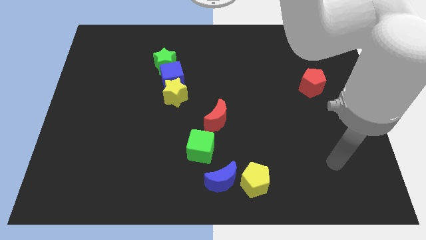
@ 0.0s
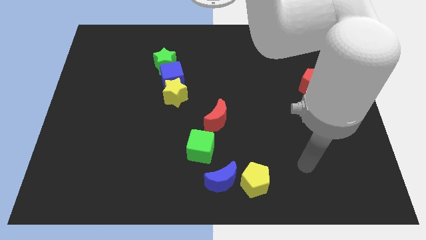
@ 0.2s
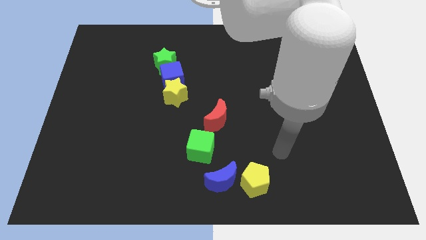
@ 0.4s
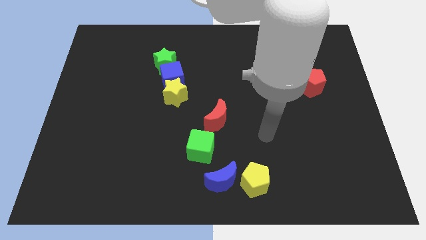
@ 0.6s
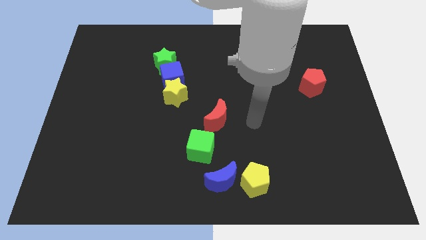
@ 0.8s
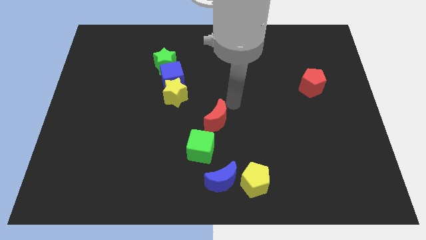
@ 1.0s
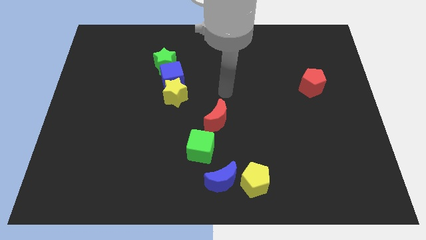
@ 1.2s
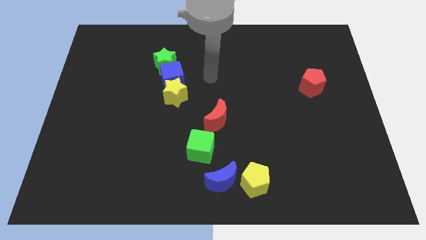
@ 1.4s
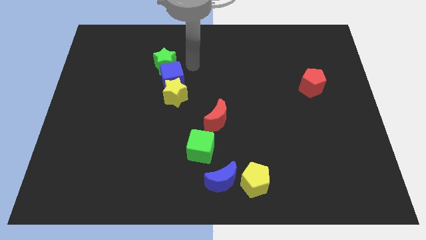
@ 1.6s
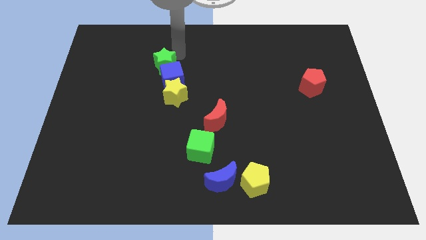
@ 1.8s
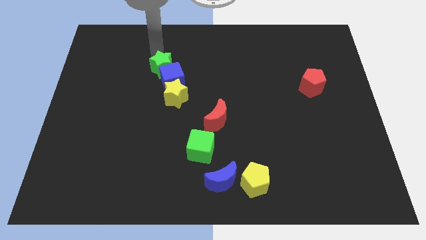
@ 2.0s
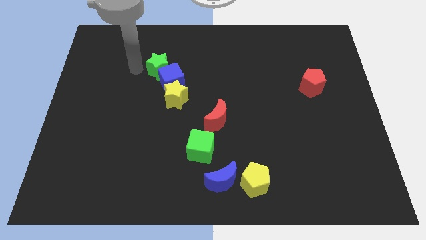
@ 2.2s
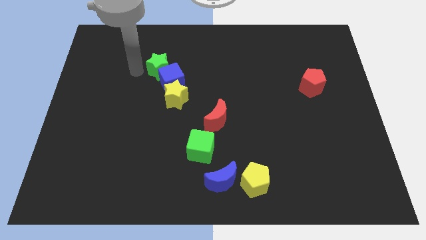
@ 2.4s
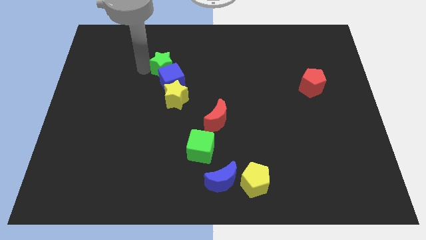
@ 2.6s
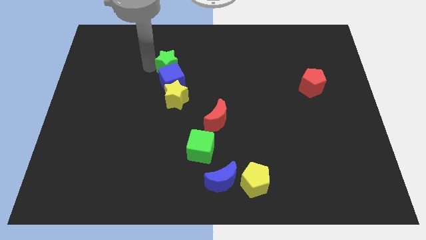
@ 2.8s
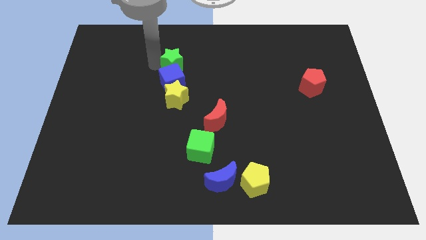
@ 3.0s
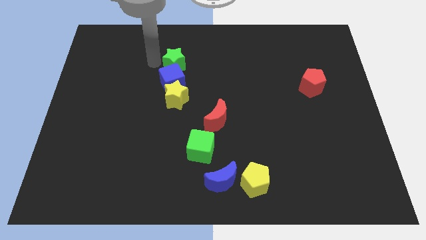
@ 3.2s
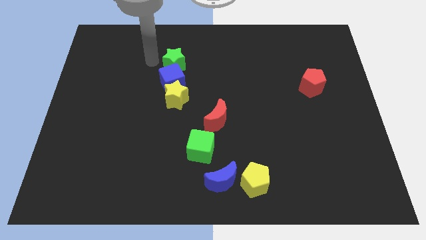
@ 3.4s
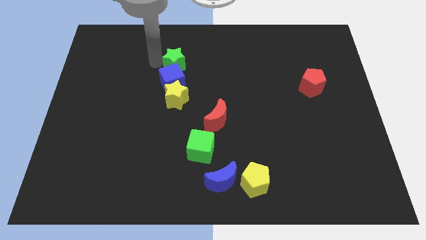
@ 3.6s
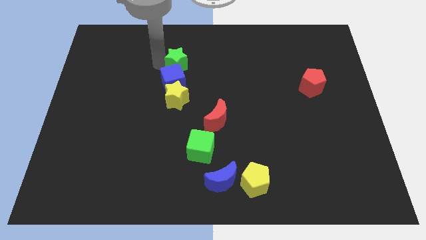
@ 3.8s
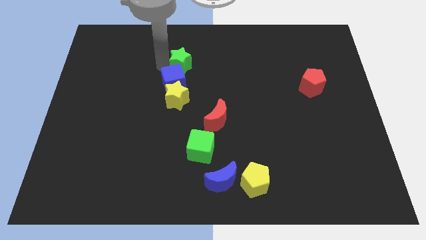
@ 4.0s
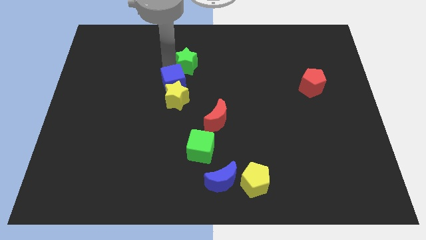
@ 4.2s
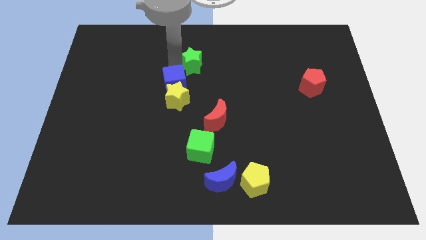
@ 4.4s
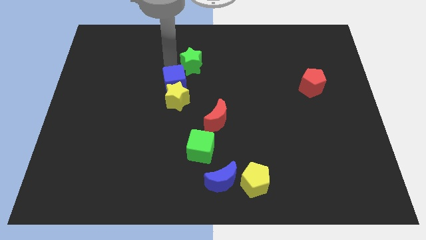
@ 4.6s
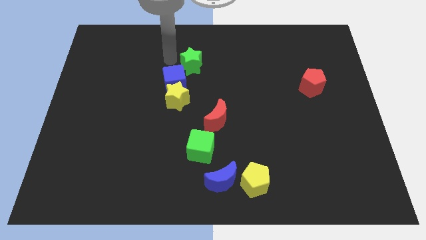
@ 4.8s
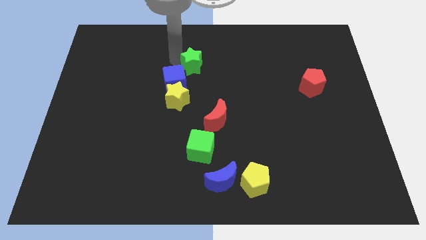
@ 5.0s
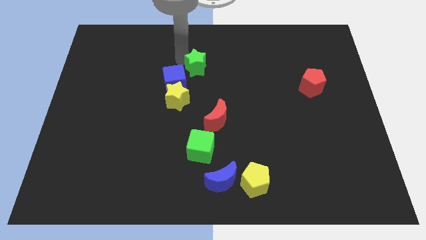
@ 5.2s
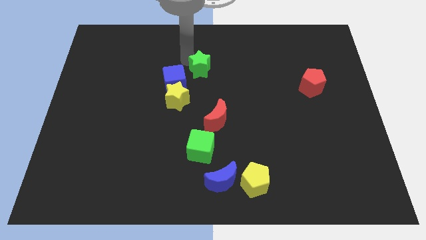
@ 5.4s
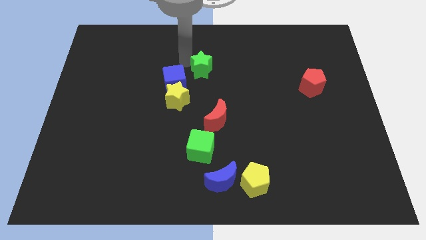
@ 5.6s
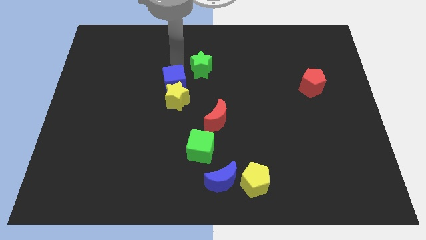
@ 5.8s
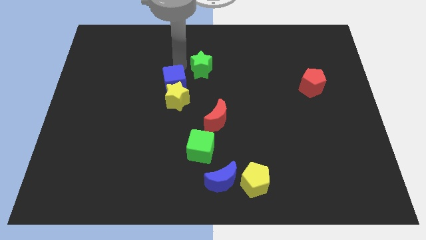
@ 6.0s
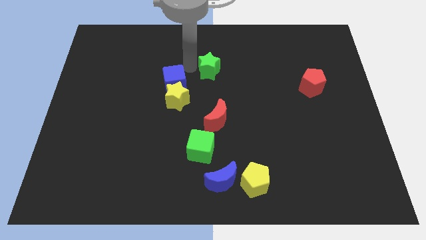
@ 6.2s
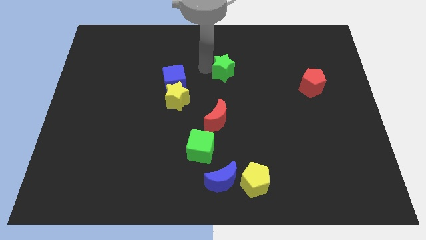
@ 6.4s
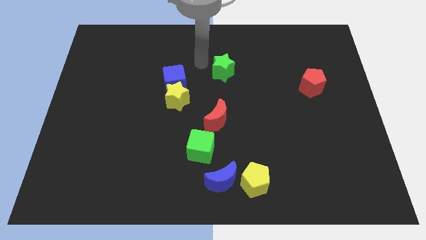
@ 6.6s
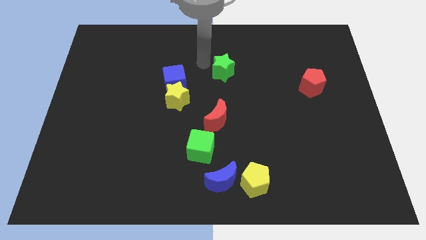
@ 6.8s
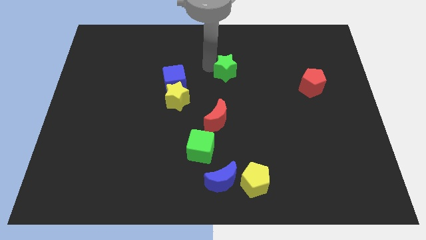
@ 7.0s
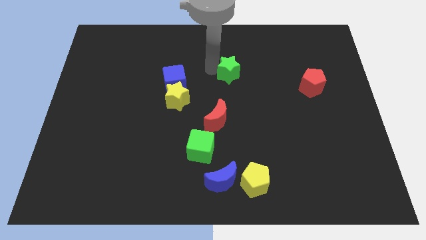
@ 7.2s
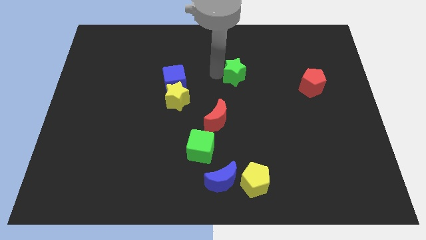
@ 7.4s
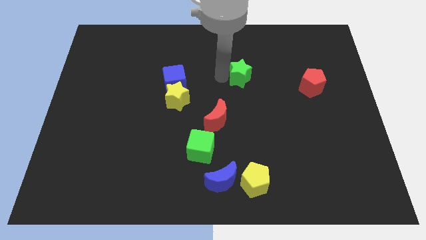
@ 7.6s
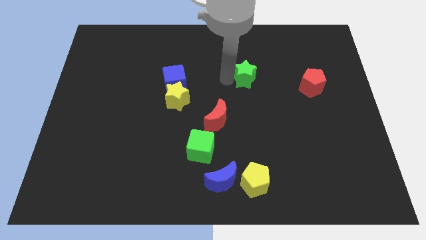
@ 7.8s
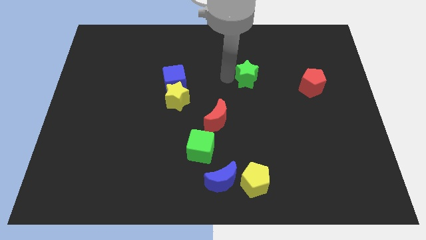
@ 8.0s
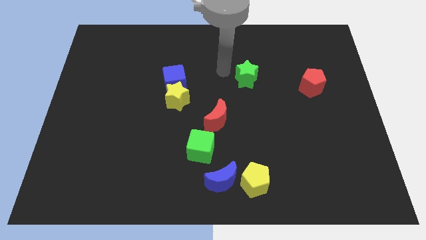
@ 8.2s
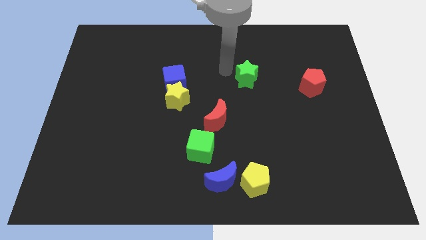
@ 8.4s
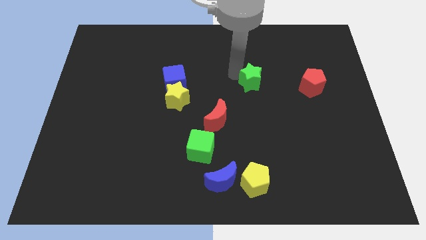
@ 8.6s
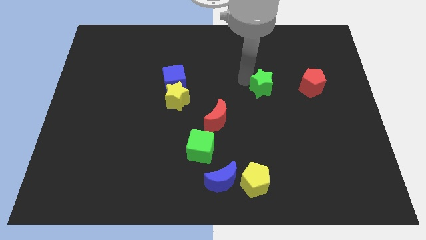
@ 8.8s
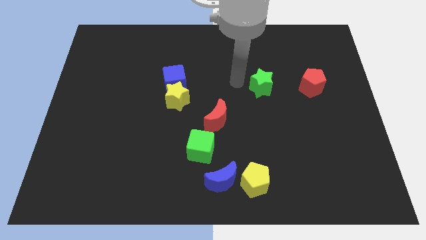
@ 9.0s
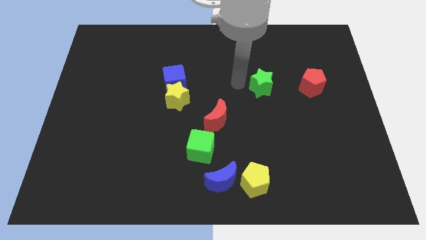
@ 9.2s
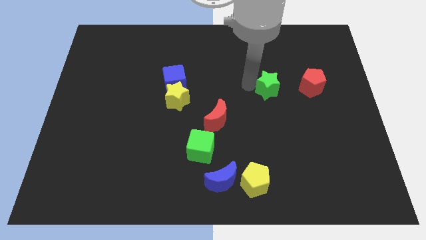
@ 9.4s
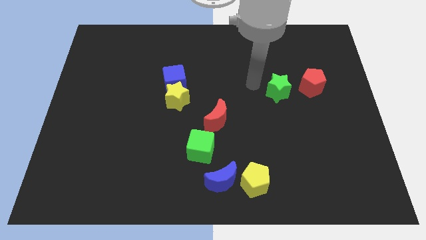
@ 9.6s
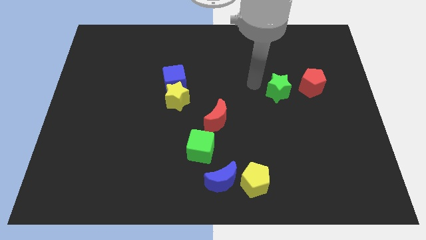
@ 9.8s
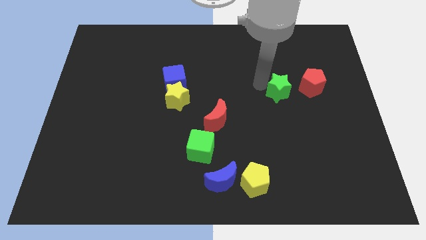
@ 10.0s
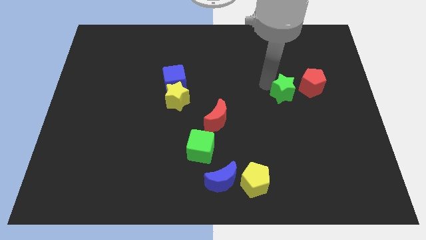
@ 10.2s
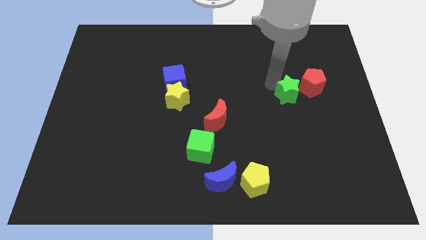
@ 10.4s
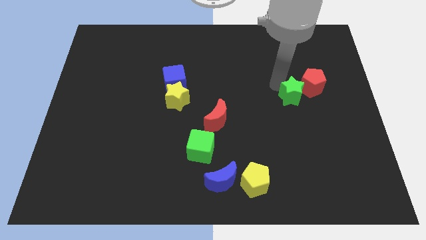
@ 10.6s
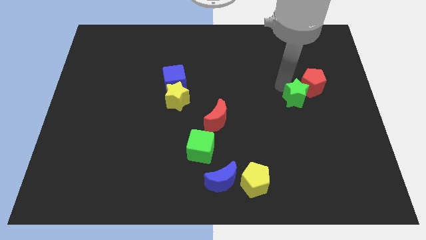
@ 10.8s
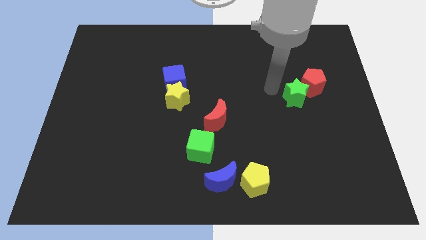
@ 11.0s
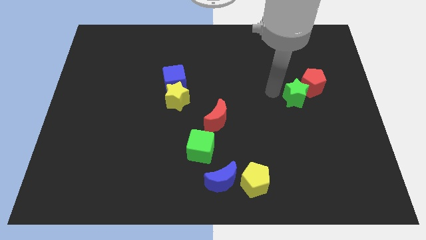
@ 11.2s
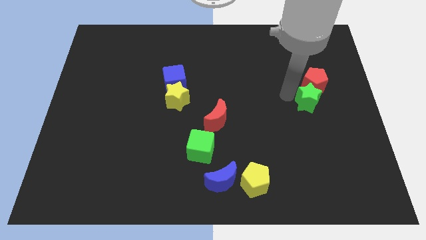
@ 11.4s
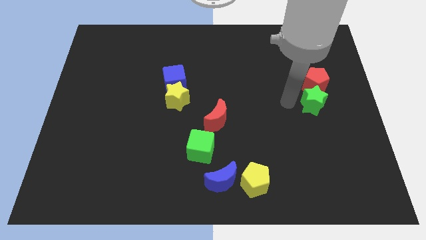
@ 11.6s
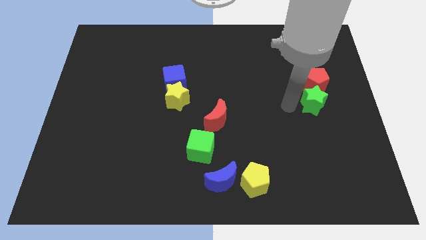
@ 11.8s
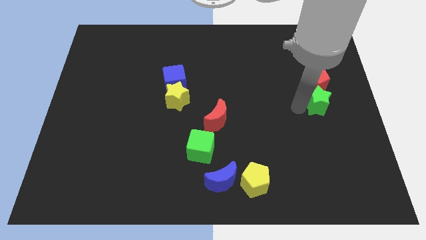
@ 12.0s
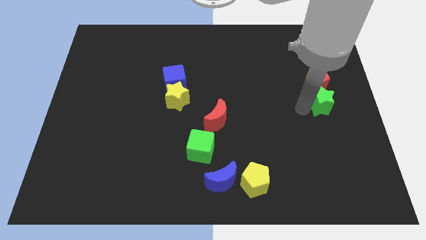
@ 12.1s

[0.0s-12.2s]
push the green star to the right side
